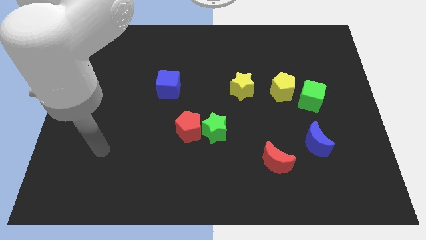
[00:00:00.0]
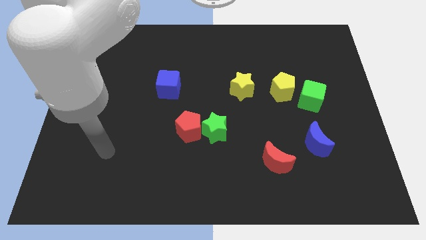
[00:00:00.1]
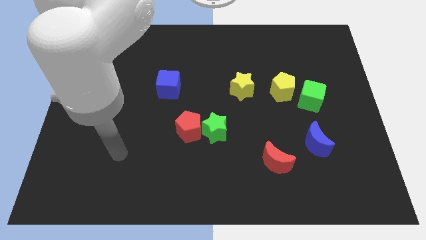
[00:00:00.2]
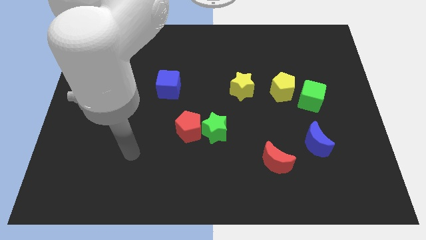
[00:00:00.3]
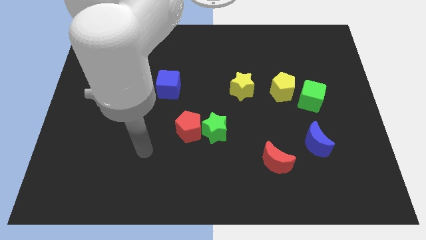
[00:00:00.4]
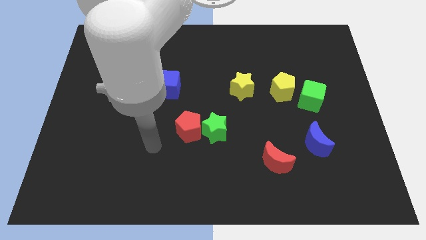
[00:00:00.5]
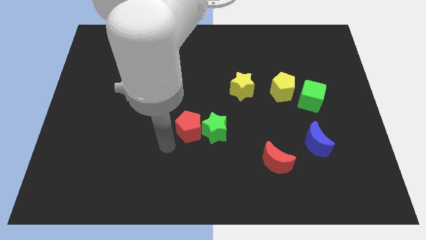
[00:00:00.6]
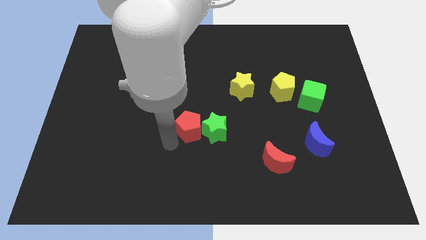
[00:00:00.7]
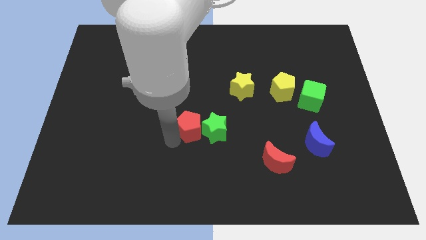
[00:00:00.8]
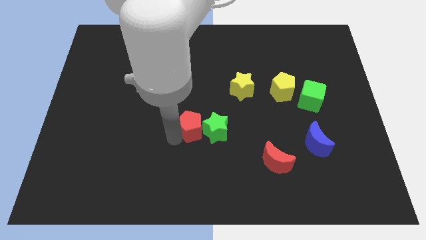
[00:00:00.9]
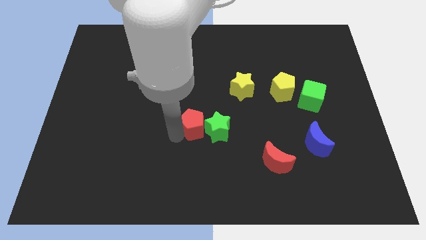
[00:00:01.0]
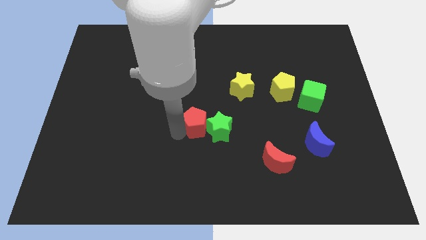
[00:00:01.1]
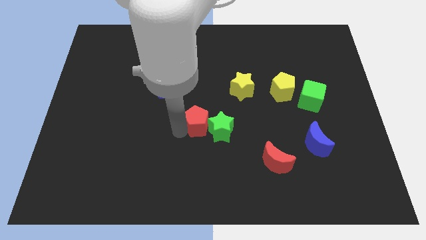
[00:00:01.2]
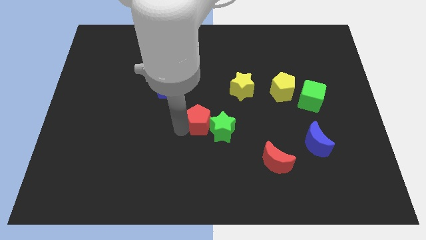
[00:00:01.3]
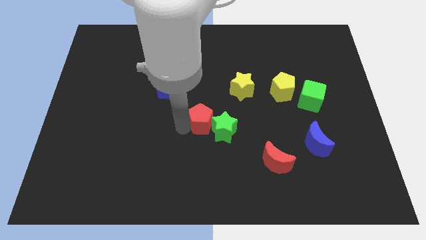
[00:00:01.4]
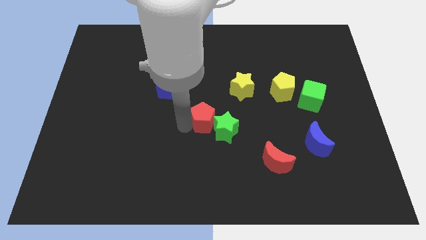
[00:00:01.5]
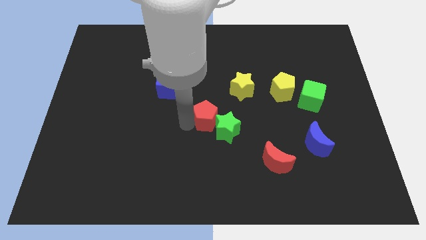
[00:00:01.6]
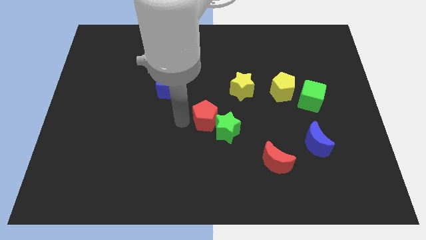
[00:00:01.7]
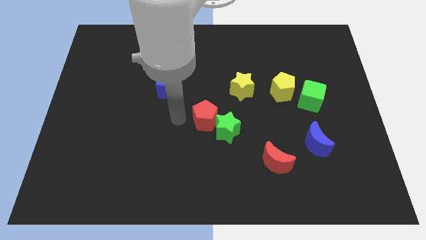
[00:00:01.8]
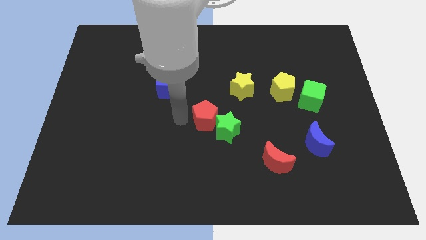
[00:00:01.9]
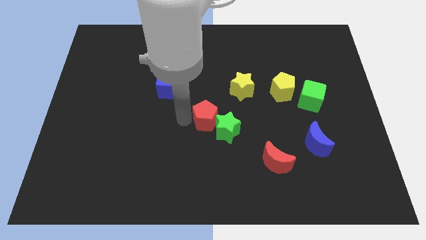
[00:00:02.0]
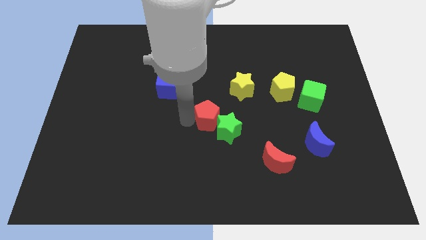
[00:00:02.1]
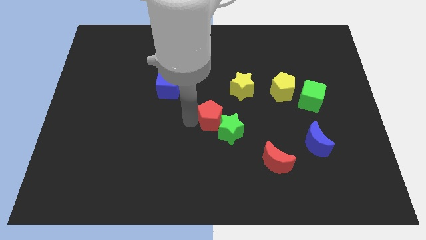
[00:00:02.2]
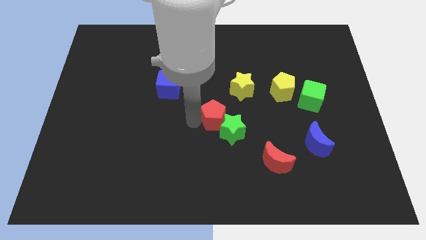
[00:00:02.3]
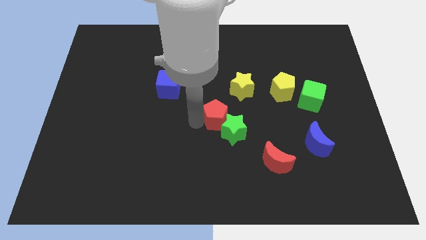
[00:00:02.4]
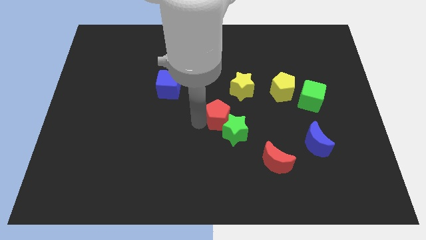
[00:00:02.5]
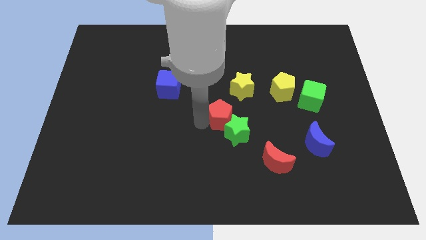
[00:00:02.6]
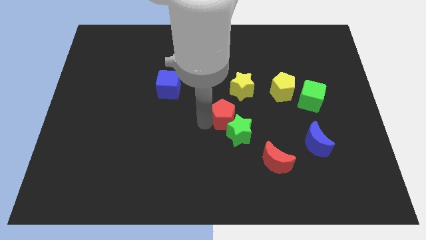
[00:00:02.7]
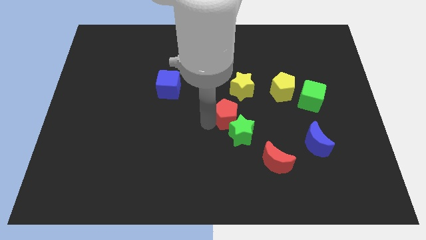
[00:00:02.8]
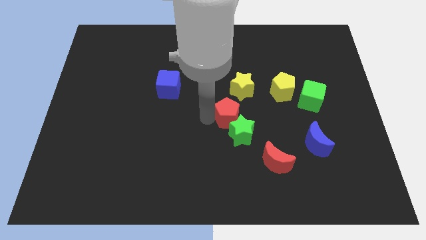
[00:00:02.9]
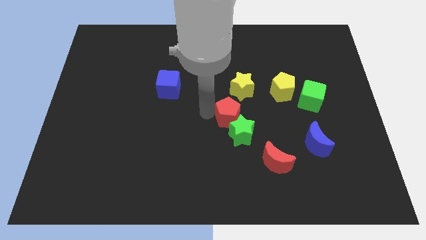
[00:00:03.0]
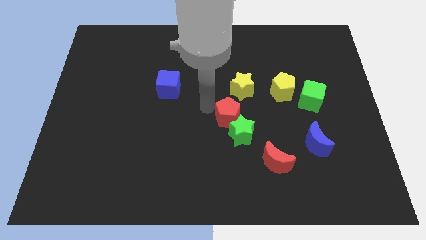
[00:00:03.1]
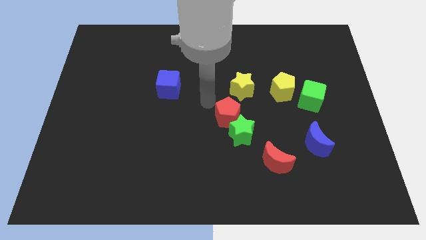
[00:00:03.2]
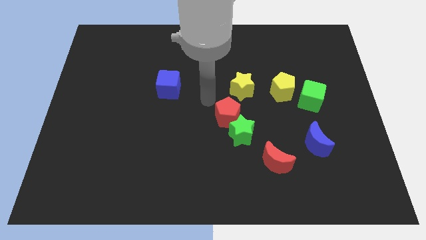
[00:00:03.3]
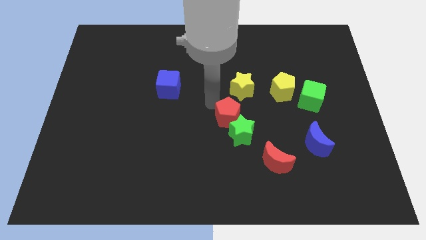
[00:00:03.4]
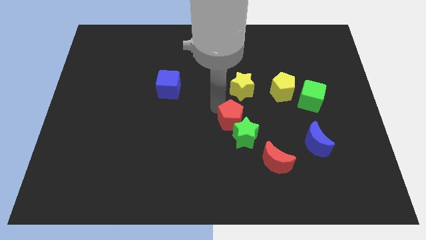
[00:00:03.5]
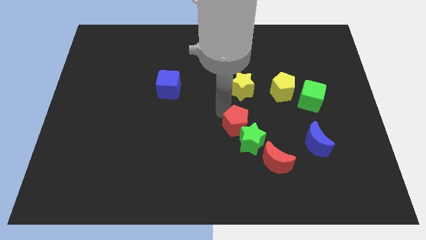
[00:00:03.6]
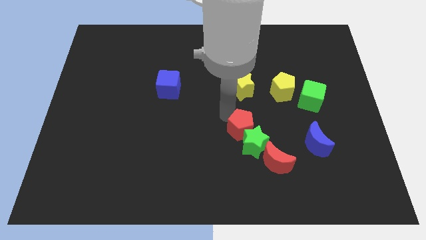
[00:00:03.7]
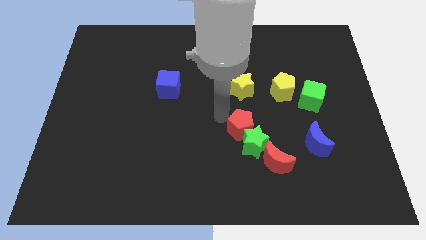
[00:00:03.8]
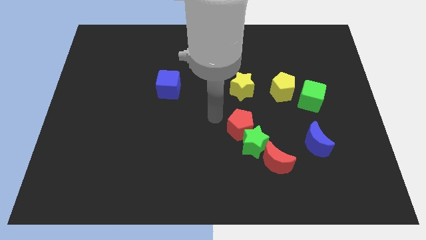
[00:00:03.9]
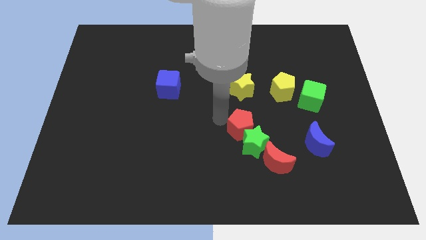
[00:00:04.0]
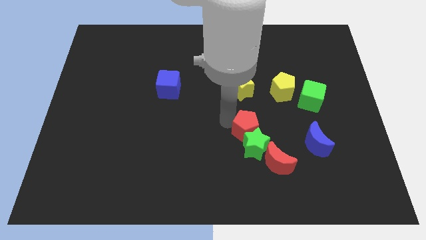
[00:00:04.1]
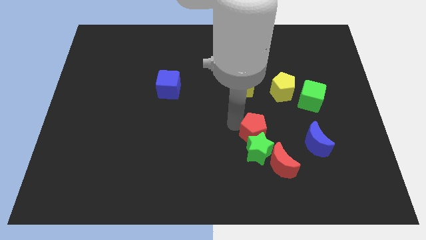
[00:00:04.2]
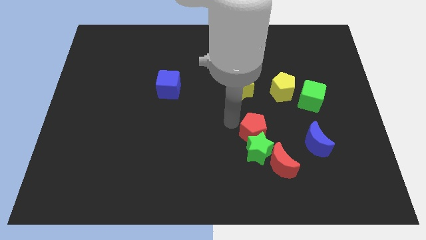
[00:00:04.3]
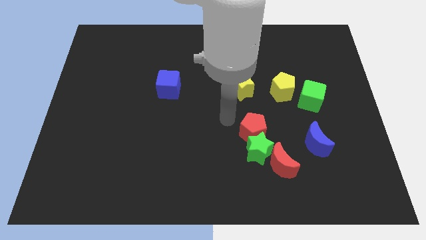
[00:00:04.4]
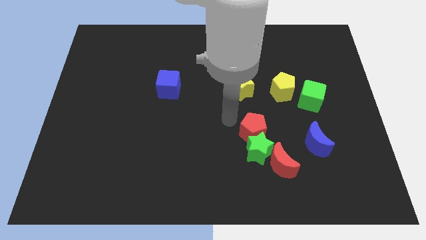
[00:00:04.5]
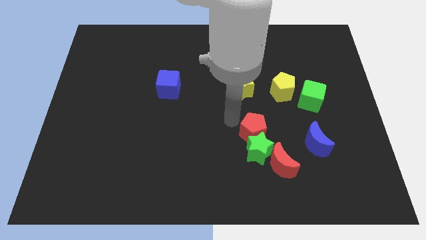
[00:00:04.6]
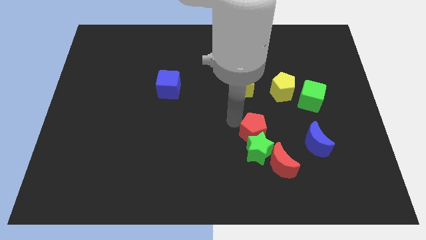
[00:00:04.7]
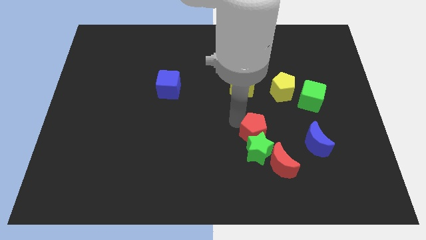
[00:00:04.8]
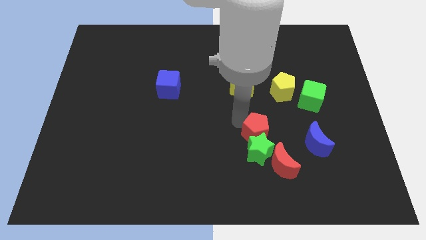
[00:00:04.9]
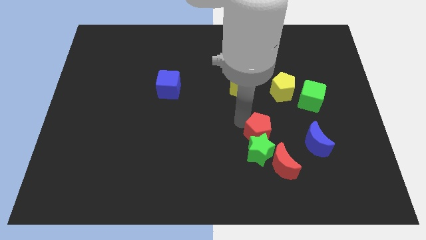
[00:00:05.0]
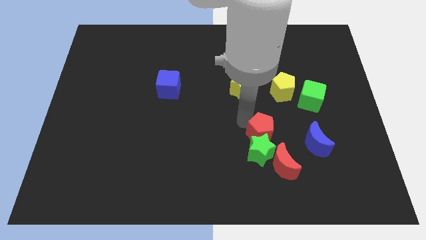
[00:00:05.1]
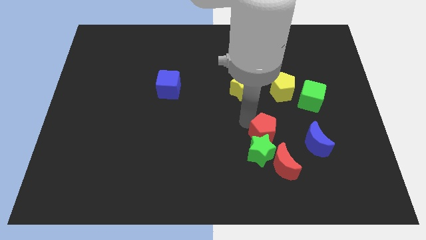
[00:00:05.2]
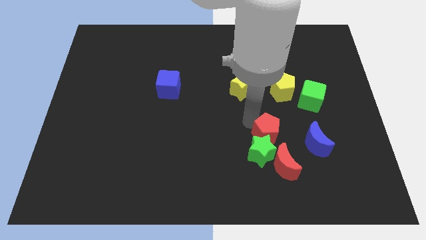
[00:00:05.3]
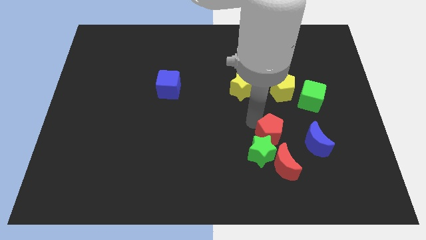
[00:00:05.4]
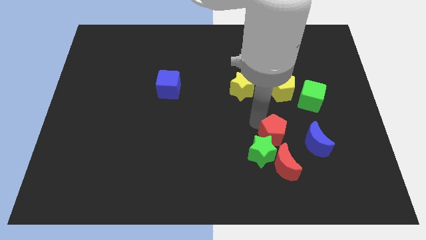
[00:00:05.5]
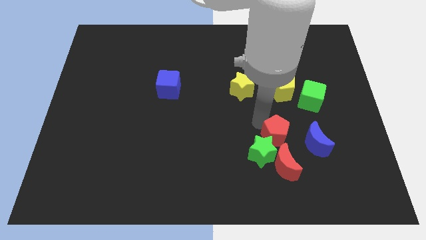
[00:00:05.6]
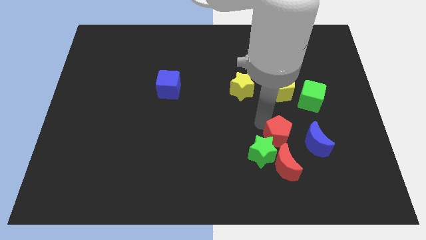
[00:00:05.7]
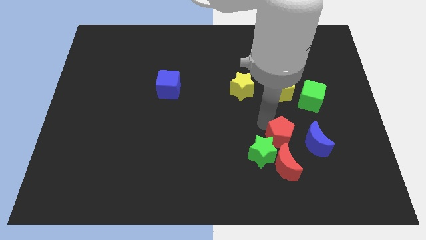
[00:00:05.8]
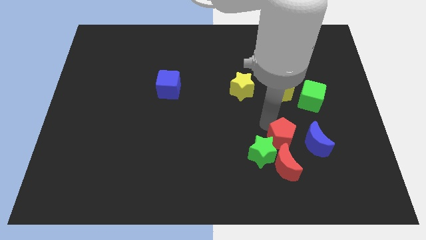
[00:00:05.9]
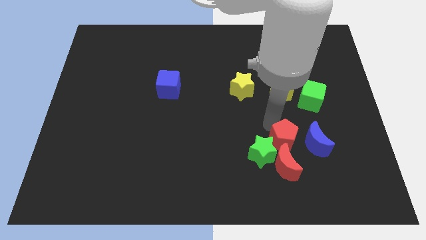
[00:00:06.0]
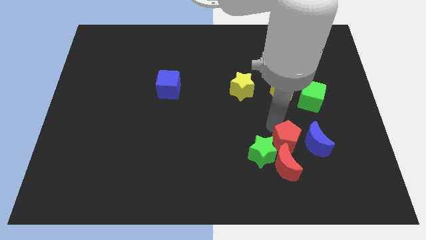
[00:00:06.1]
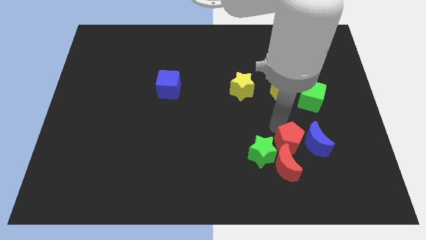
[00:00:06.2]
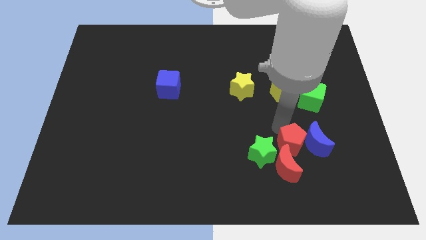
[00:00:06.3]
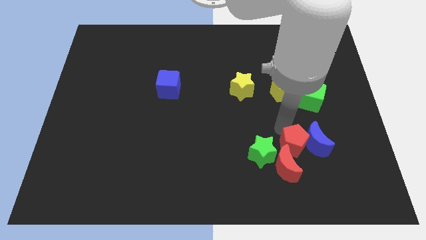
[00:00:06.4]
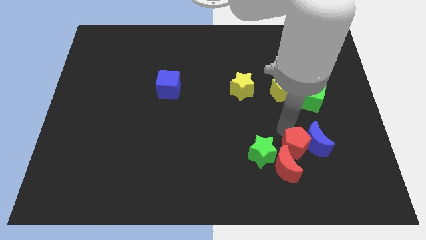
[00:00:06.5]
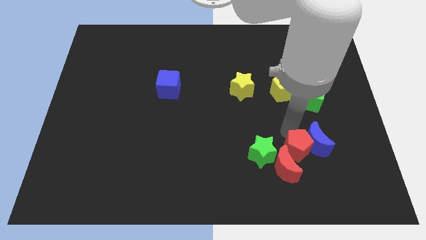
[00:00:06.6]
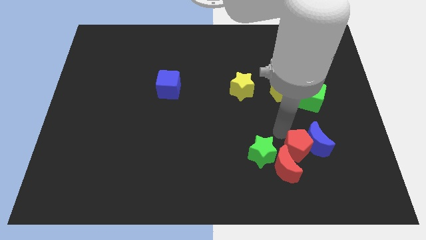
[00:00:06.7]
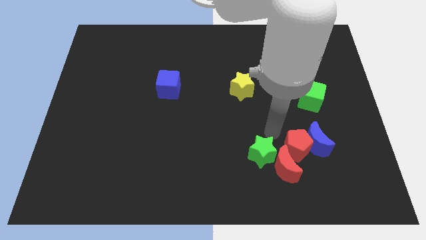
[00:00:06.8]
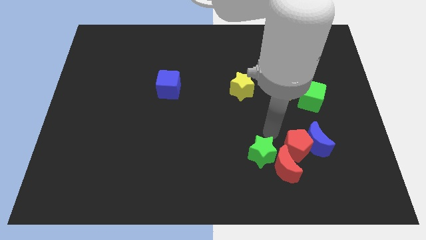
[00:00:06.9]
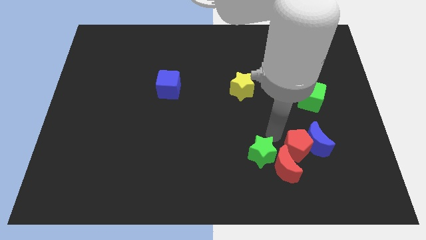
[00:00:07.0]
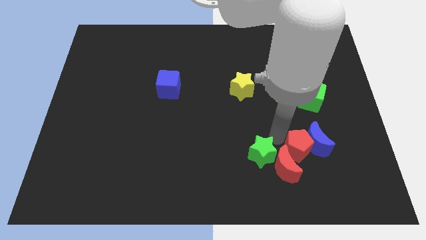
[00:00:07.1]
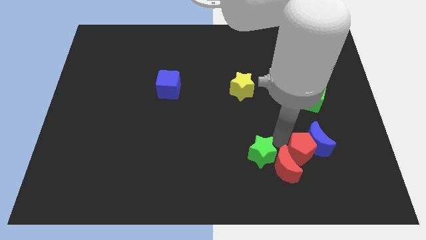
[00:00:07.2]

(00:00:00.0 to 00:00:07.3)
move the red pentagon to the right side of the red moon
